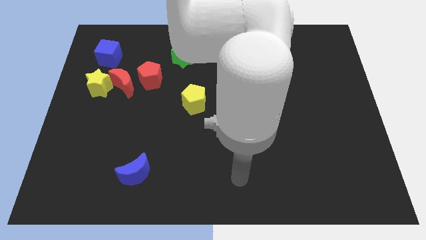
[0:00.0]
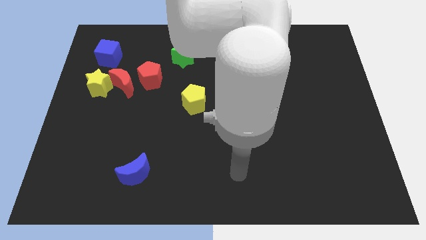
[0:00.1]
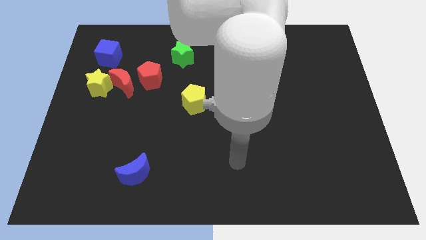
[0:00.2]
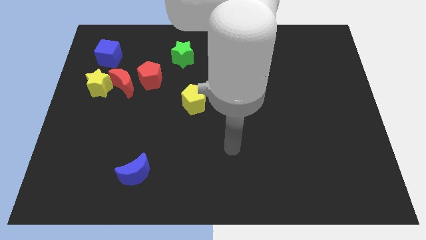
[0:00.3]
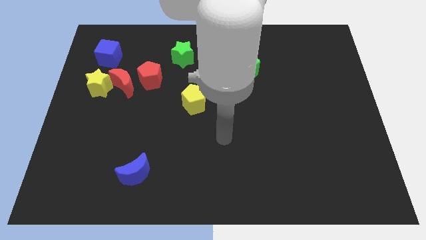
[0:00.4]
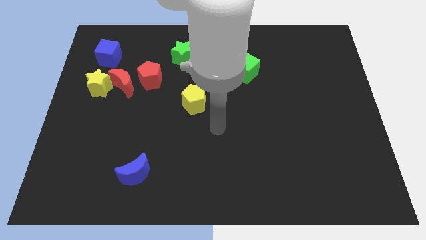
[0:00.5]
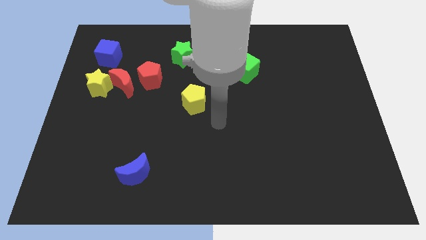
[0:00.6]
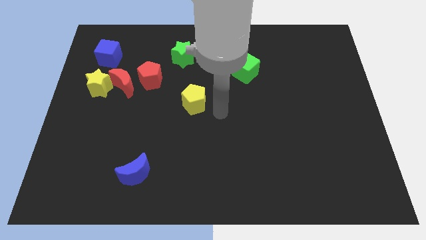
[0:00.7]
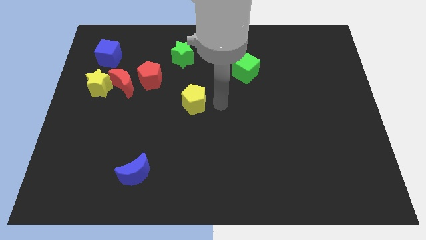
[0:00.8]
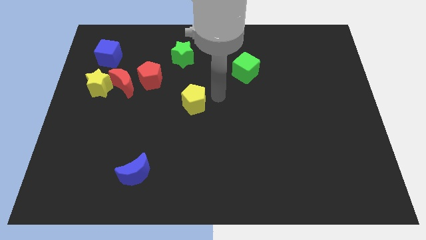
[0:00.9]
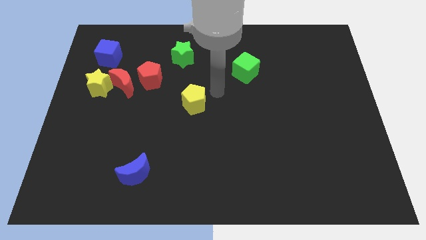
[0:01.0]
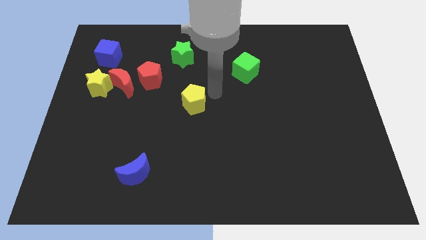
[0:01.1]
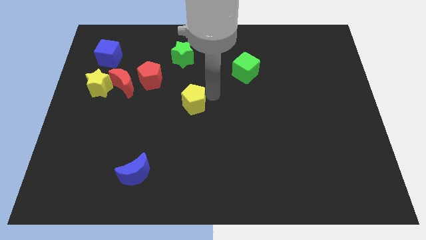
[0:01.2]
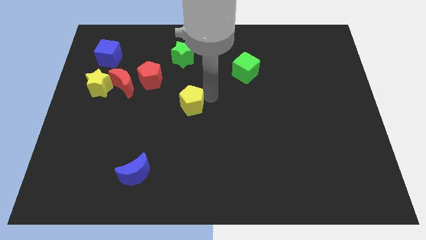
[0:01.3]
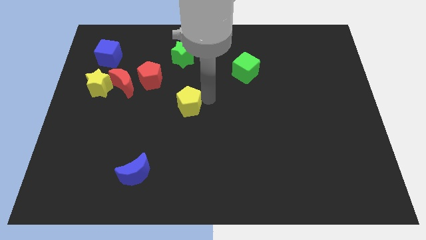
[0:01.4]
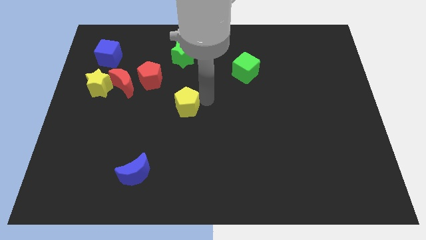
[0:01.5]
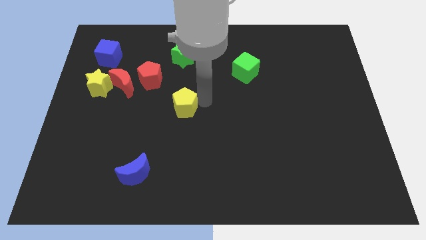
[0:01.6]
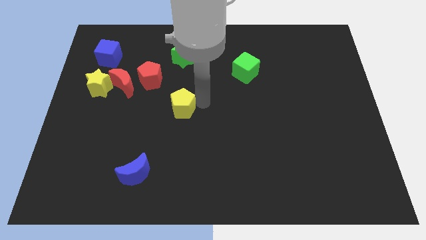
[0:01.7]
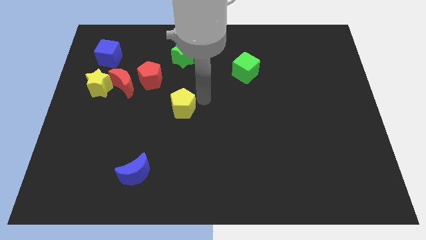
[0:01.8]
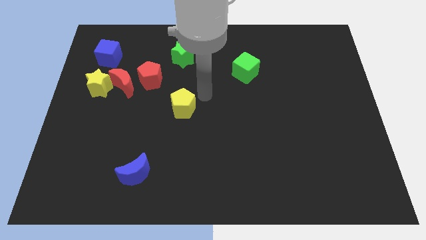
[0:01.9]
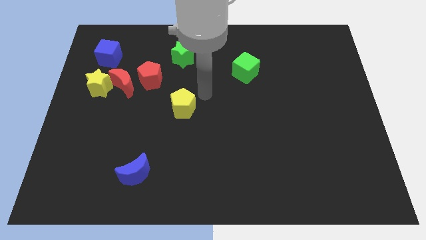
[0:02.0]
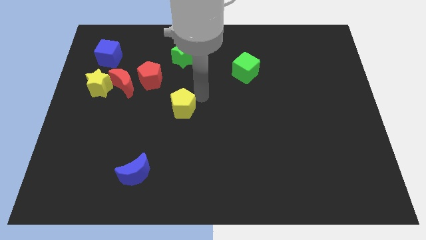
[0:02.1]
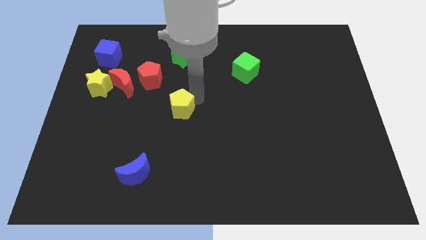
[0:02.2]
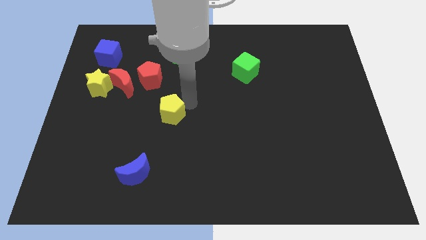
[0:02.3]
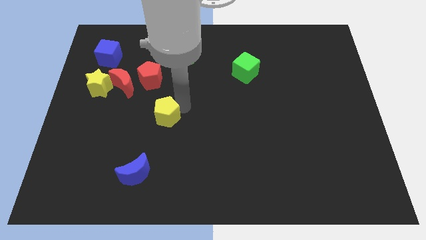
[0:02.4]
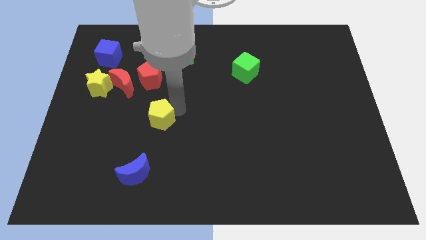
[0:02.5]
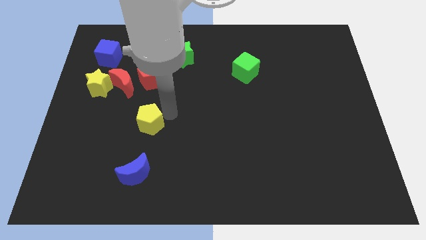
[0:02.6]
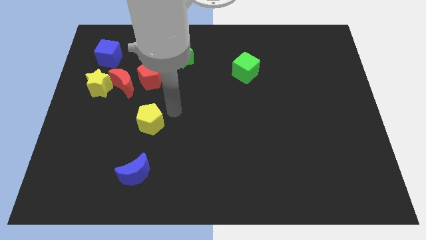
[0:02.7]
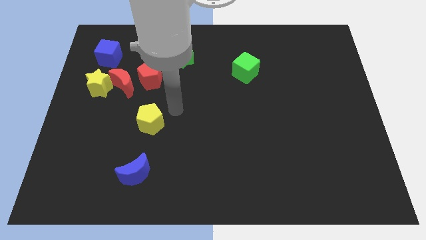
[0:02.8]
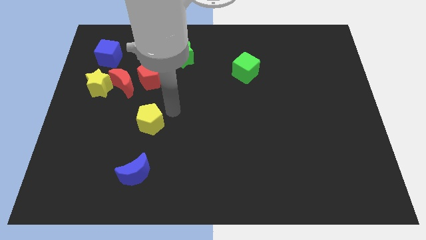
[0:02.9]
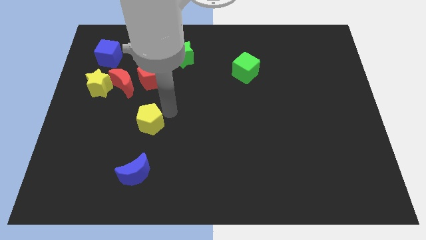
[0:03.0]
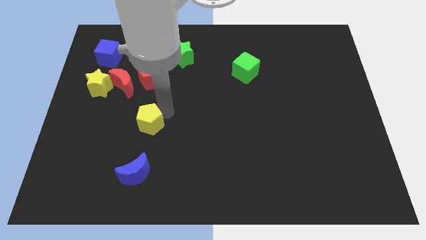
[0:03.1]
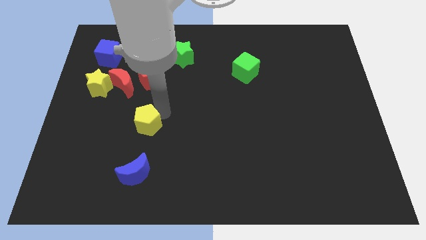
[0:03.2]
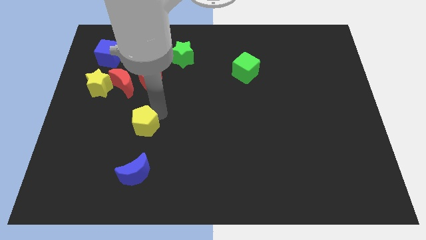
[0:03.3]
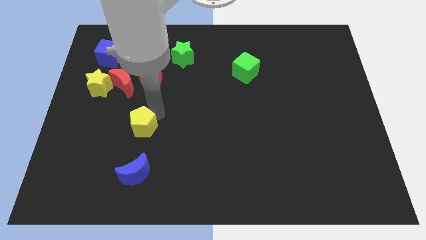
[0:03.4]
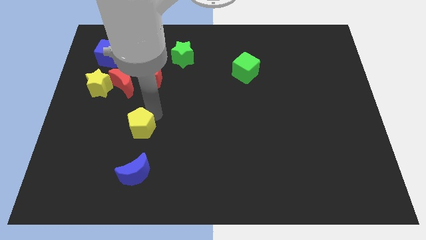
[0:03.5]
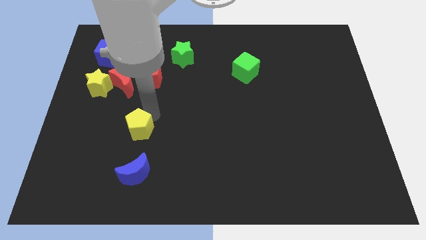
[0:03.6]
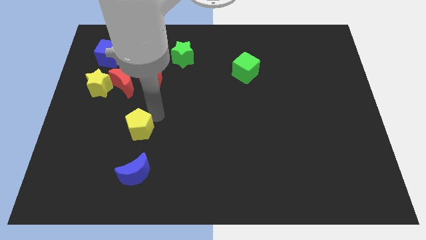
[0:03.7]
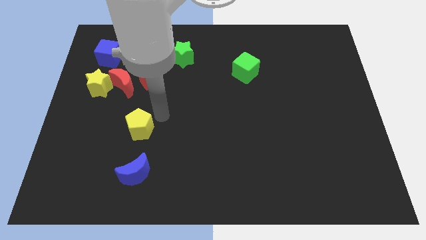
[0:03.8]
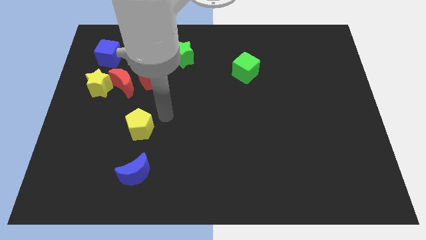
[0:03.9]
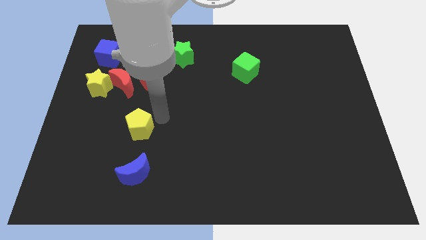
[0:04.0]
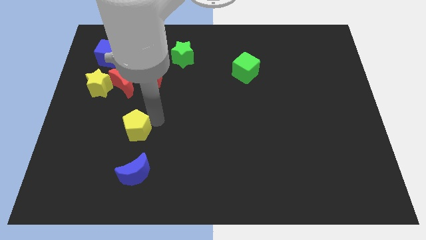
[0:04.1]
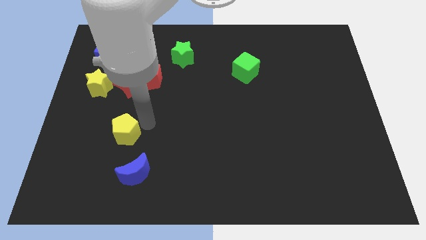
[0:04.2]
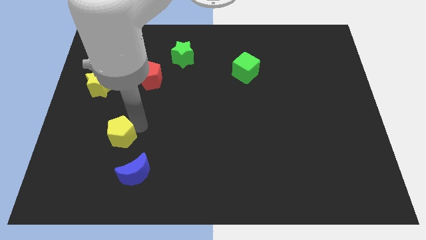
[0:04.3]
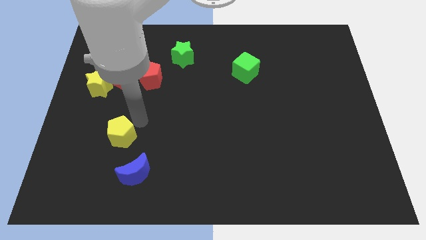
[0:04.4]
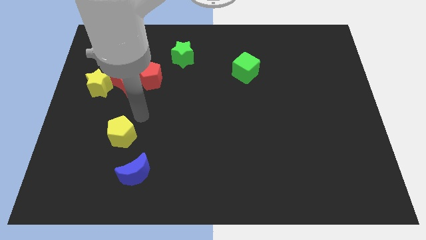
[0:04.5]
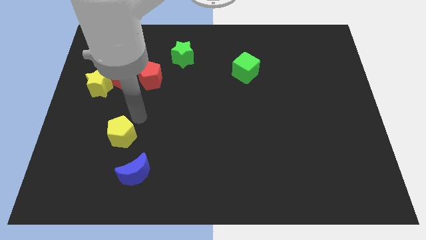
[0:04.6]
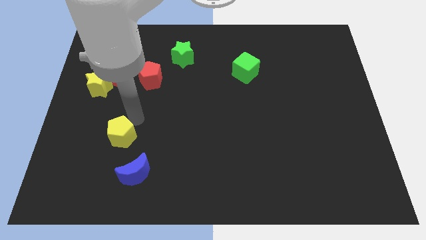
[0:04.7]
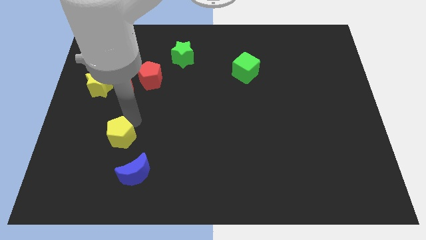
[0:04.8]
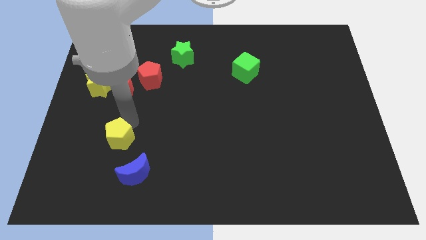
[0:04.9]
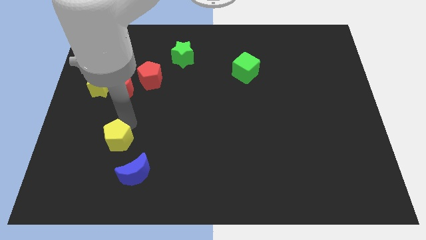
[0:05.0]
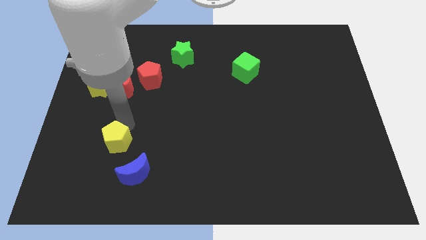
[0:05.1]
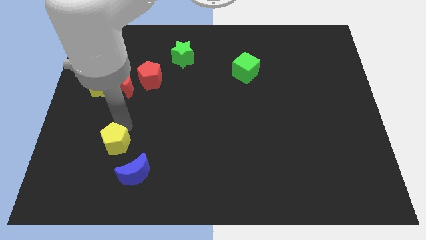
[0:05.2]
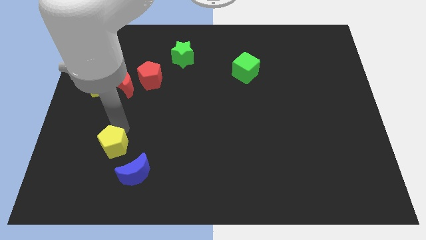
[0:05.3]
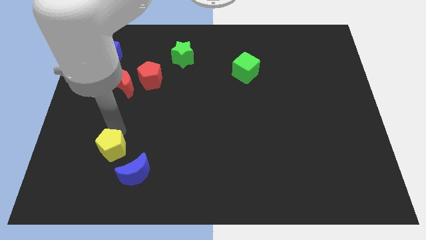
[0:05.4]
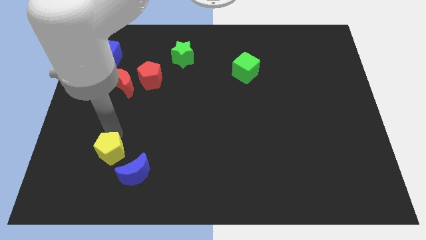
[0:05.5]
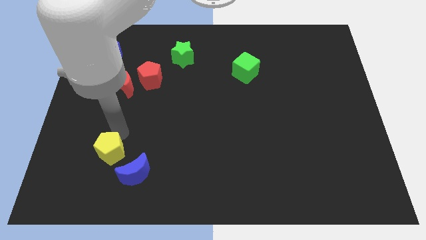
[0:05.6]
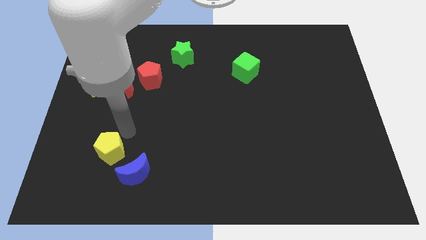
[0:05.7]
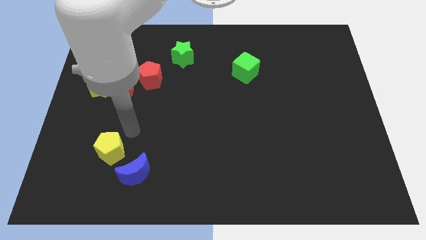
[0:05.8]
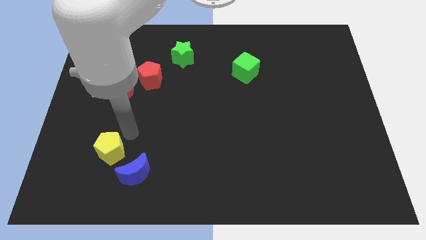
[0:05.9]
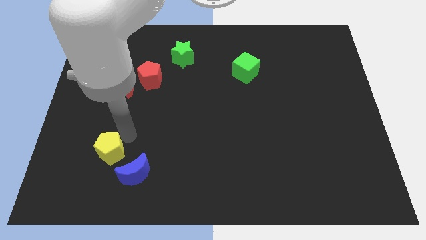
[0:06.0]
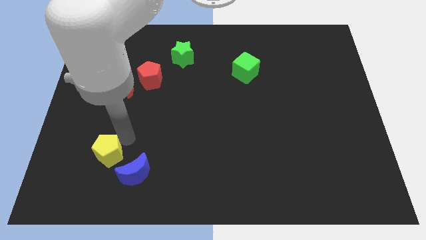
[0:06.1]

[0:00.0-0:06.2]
move the yellow pentagon to the left of the blue moon
